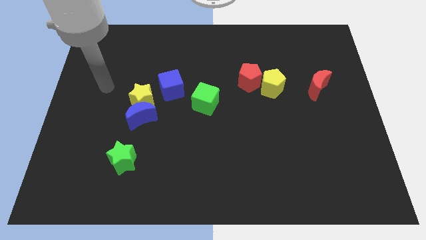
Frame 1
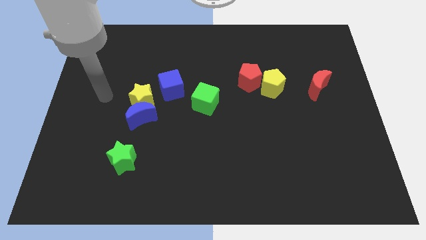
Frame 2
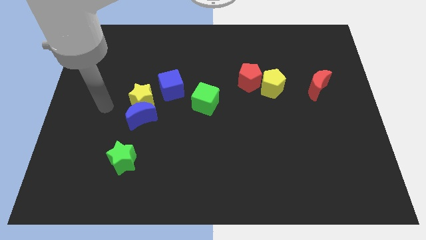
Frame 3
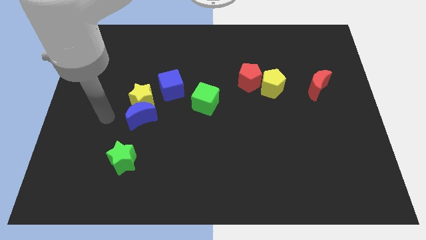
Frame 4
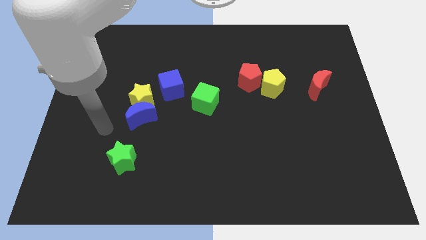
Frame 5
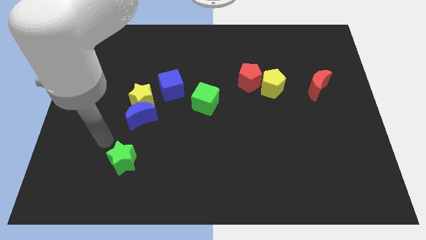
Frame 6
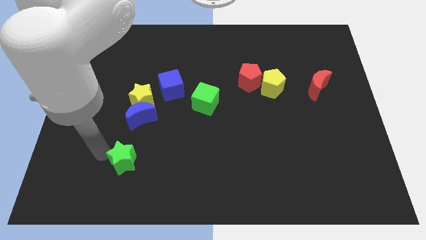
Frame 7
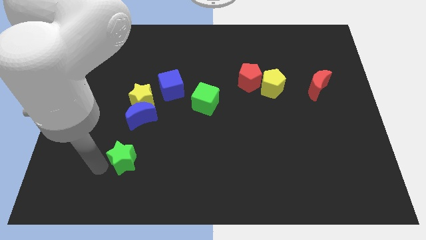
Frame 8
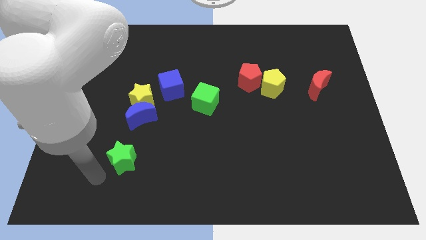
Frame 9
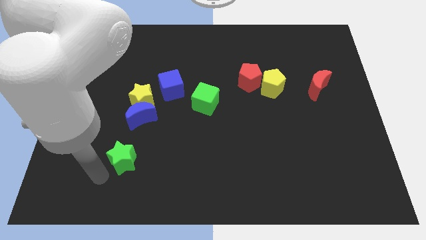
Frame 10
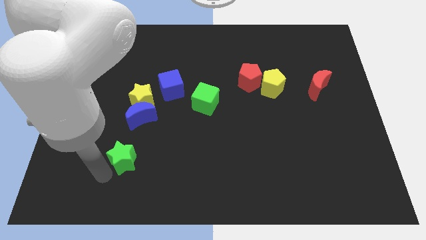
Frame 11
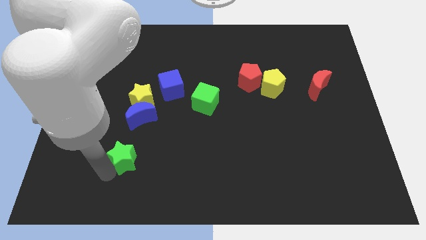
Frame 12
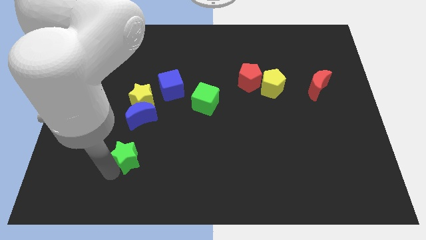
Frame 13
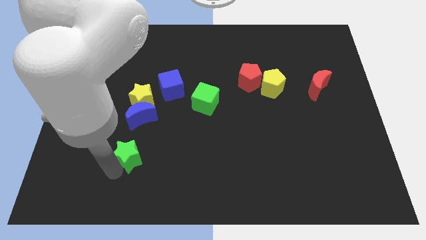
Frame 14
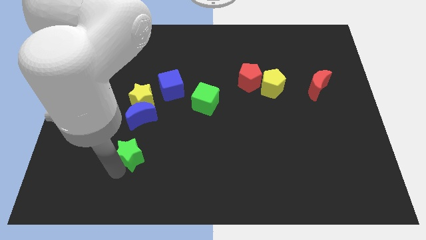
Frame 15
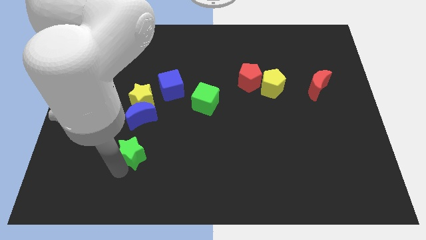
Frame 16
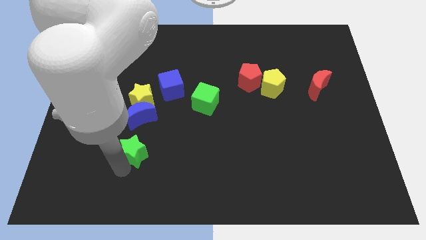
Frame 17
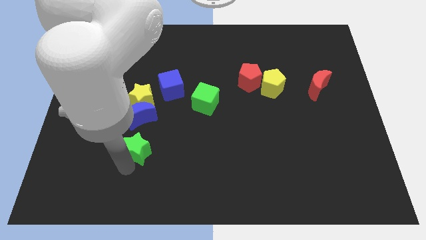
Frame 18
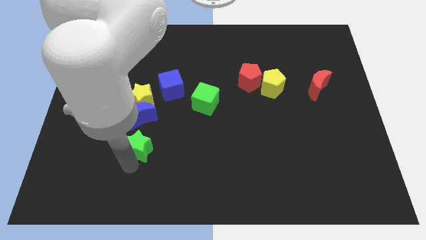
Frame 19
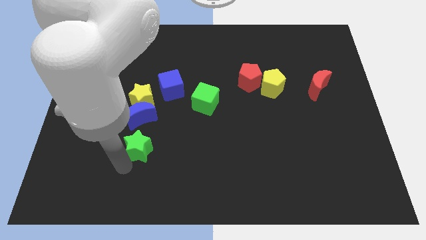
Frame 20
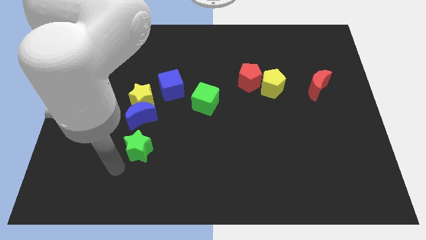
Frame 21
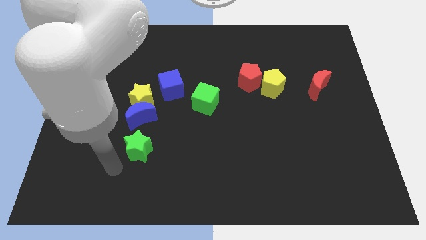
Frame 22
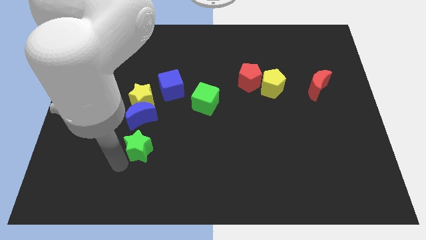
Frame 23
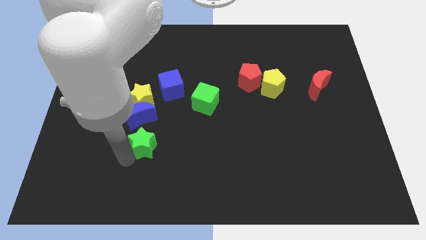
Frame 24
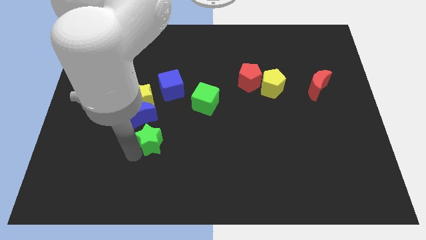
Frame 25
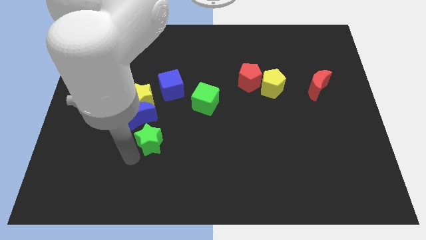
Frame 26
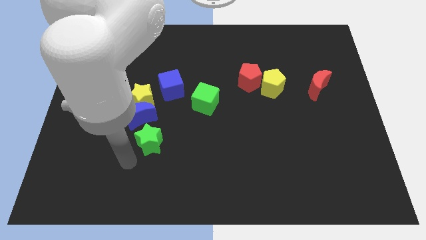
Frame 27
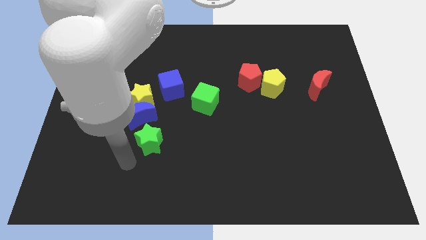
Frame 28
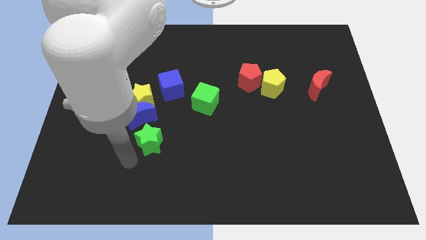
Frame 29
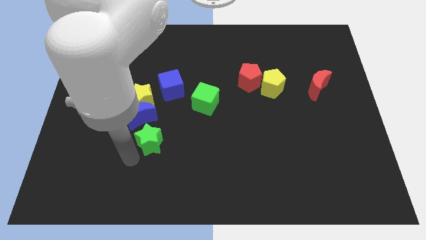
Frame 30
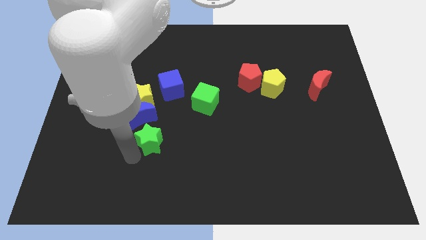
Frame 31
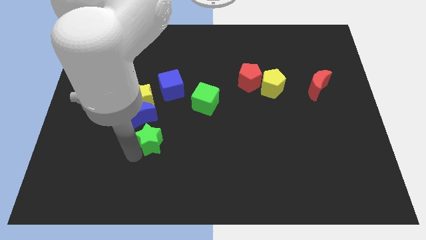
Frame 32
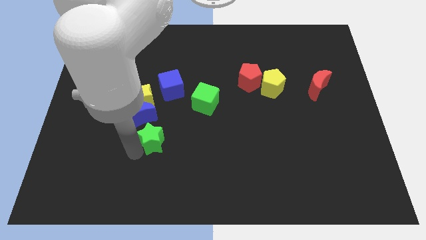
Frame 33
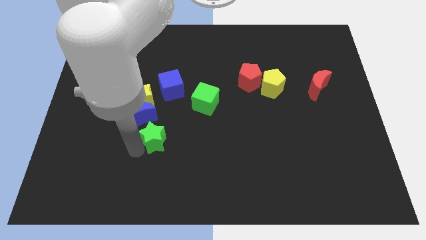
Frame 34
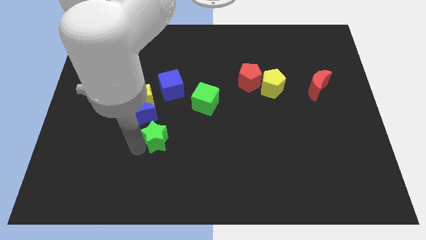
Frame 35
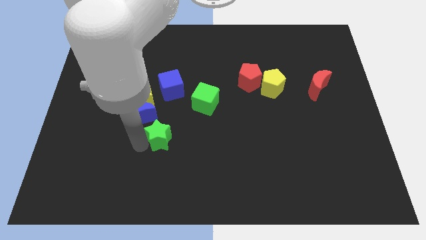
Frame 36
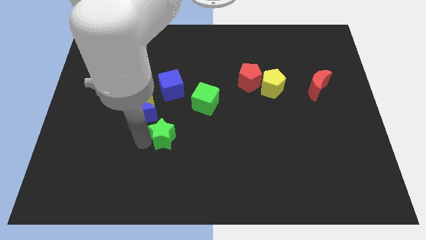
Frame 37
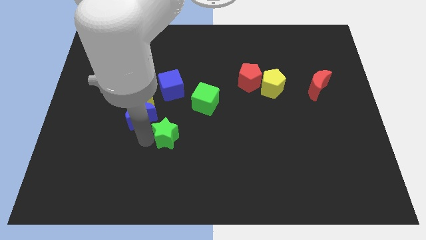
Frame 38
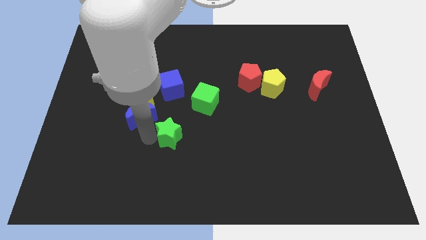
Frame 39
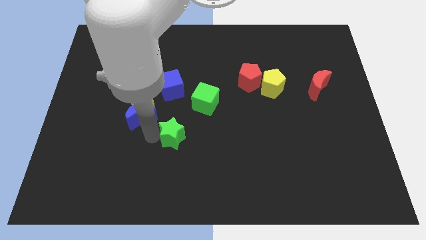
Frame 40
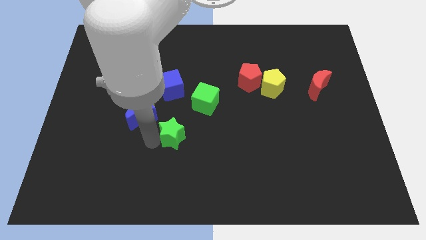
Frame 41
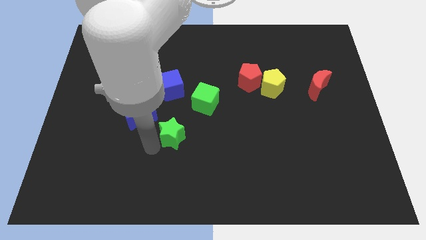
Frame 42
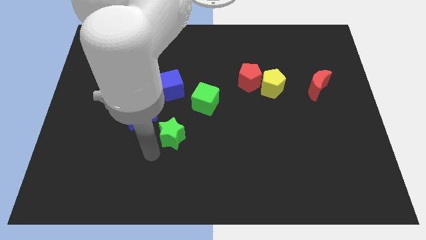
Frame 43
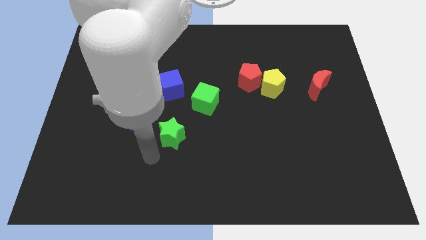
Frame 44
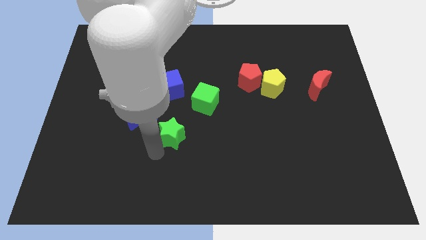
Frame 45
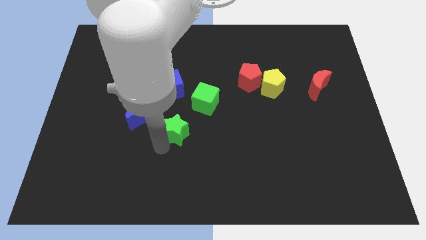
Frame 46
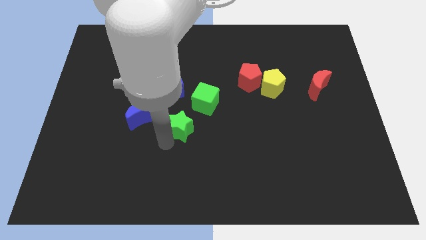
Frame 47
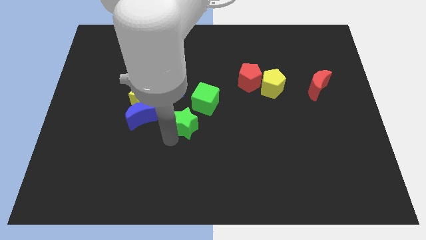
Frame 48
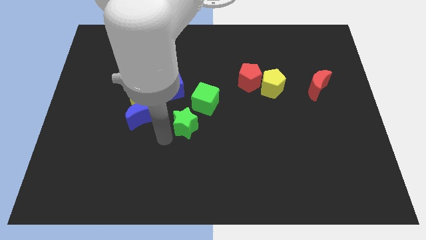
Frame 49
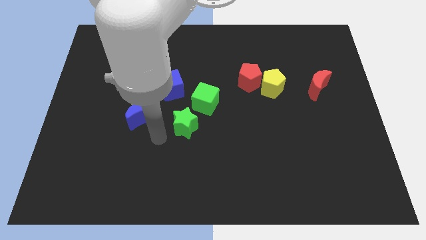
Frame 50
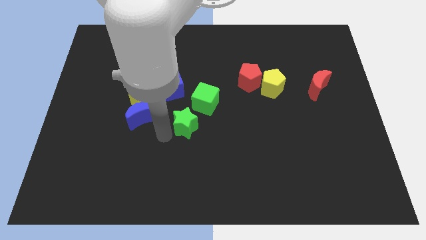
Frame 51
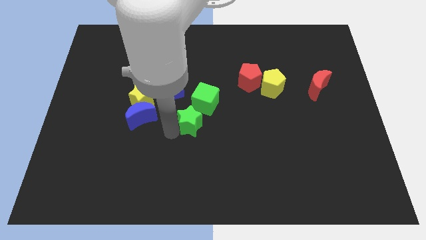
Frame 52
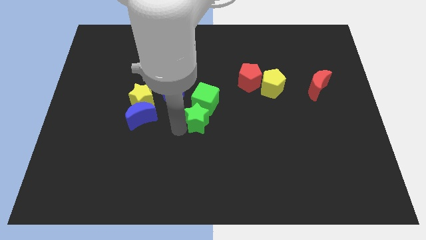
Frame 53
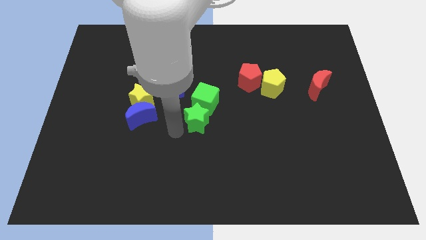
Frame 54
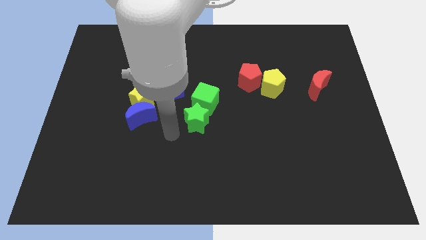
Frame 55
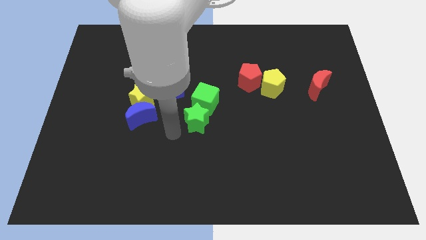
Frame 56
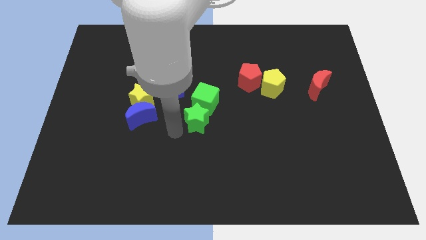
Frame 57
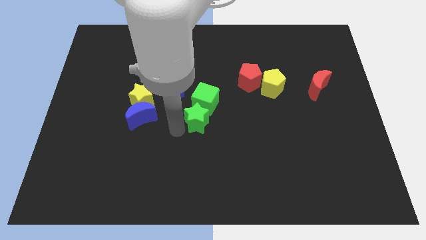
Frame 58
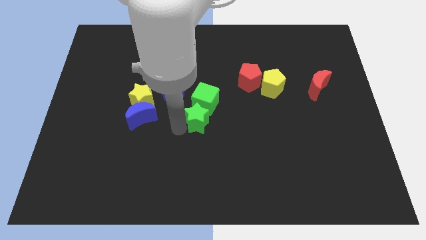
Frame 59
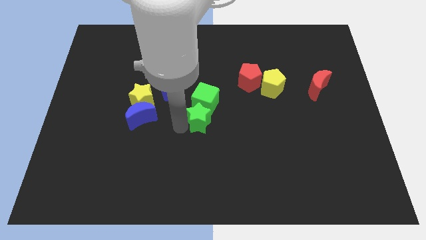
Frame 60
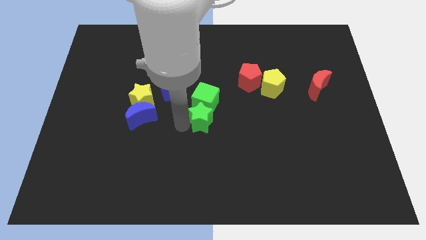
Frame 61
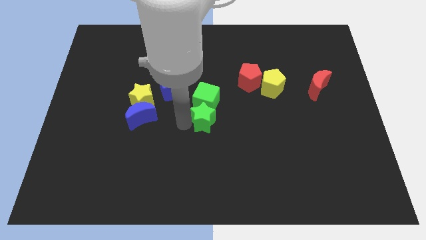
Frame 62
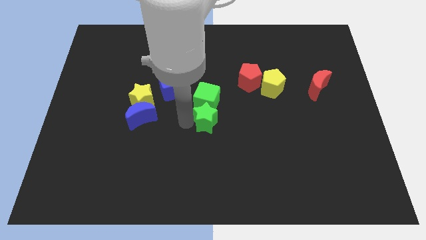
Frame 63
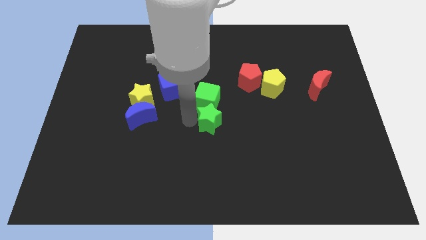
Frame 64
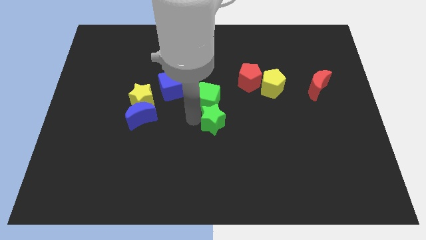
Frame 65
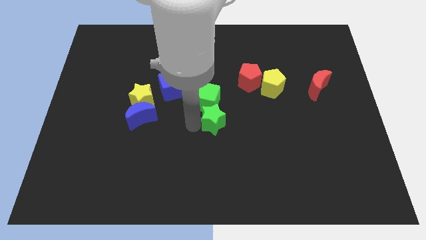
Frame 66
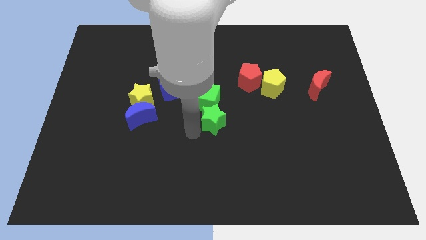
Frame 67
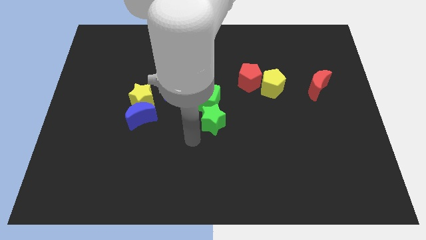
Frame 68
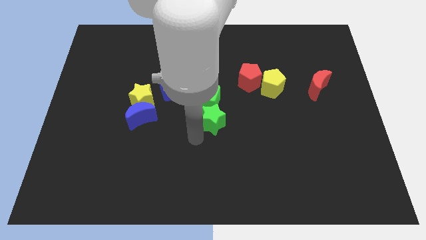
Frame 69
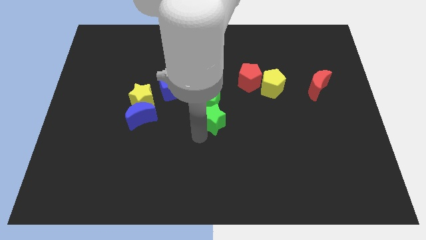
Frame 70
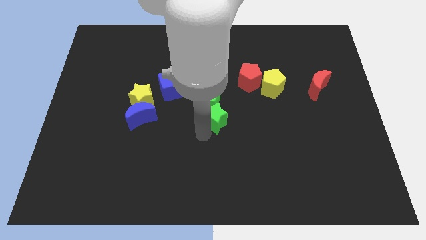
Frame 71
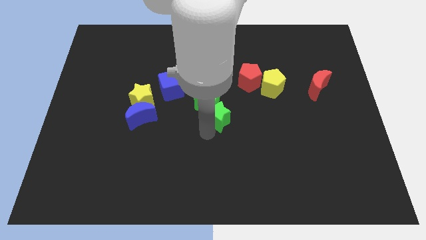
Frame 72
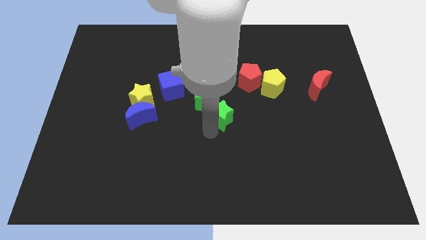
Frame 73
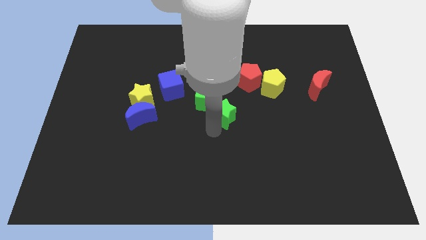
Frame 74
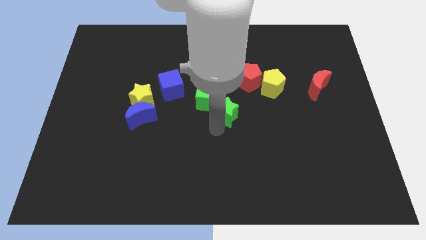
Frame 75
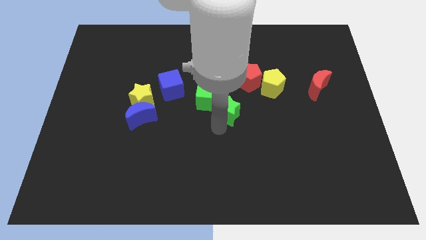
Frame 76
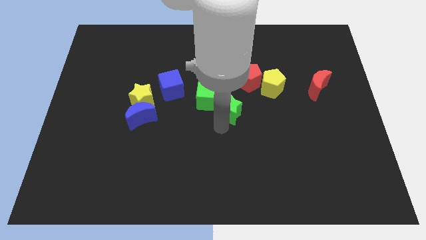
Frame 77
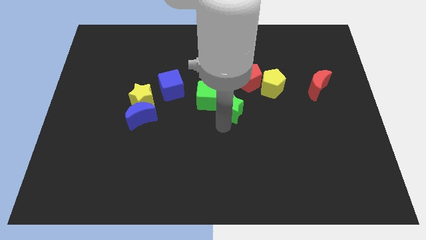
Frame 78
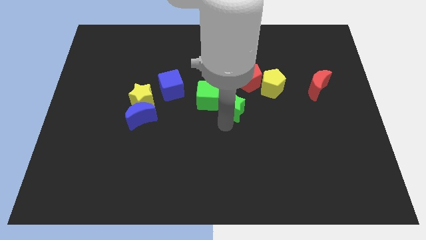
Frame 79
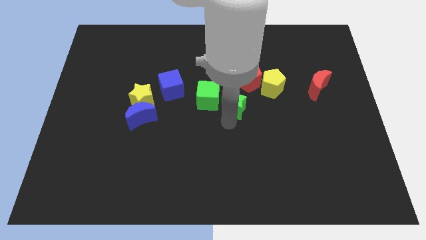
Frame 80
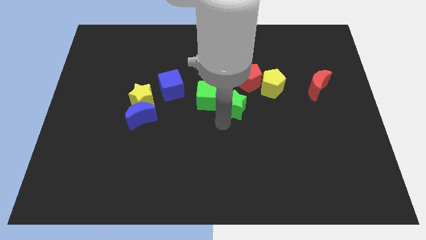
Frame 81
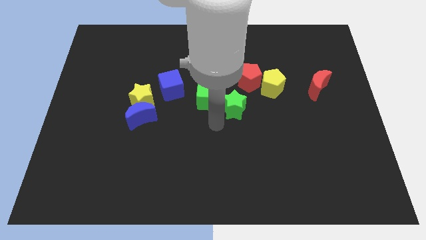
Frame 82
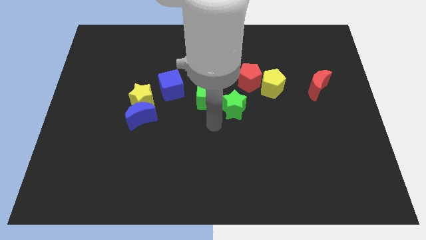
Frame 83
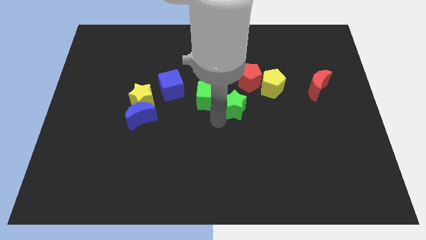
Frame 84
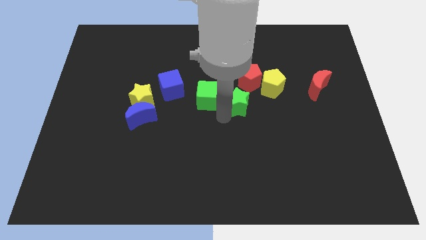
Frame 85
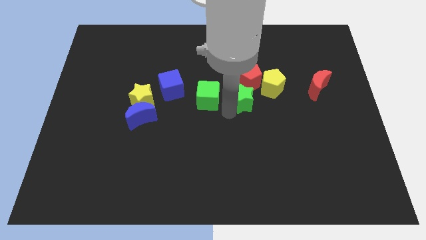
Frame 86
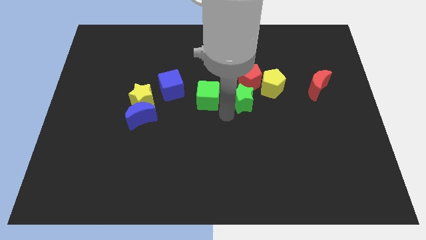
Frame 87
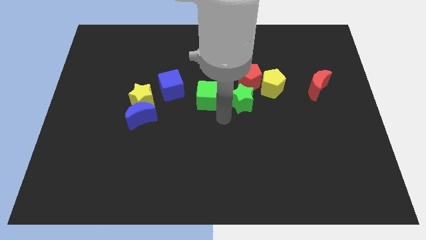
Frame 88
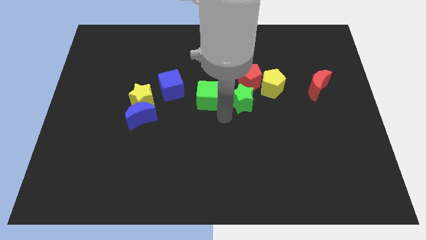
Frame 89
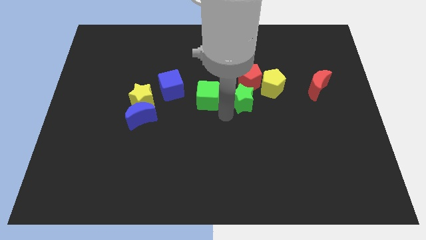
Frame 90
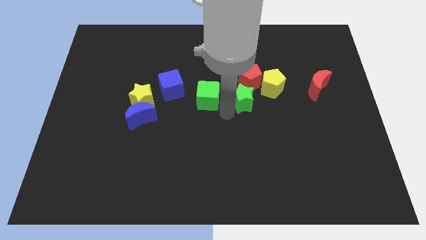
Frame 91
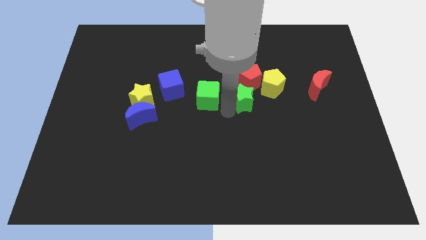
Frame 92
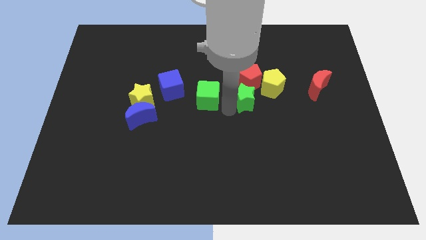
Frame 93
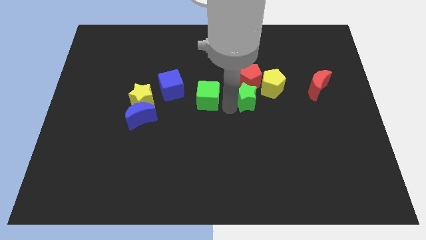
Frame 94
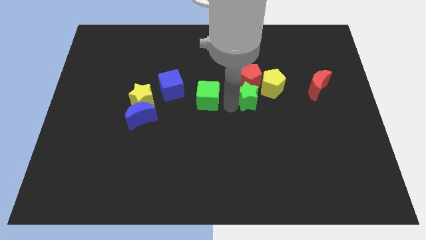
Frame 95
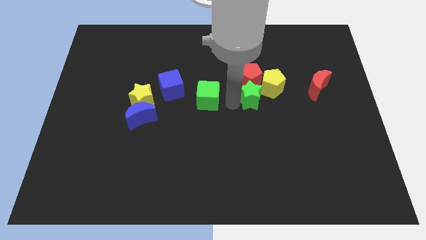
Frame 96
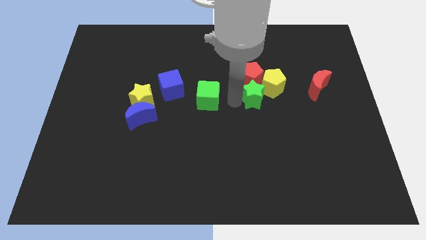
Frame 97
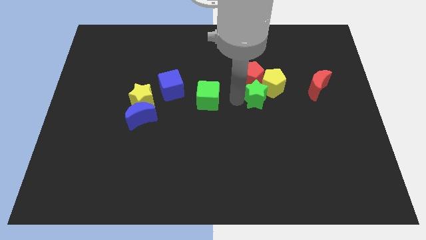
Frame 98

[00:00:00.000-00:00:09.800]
push the green star to the yellow pentagon
